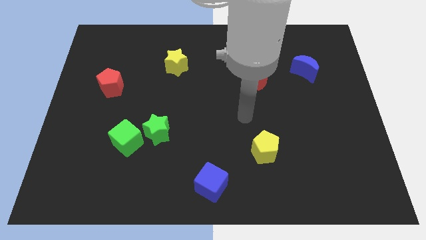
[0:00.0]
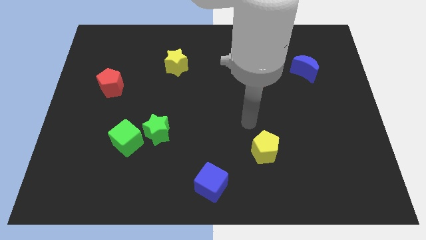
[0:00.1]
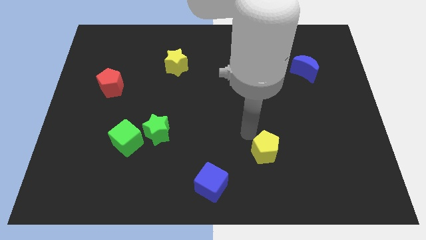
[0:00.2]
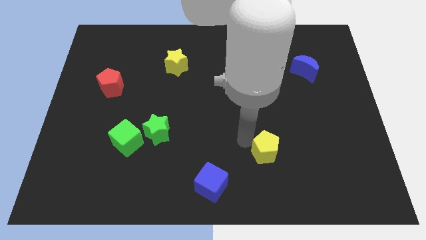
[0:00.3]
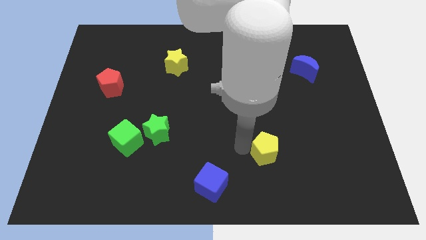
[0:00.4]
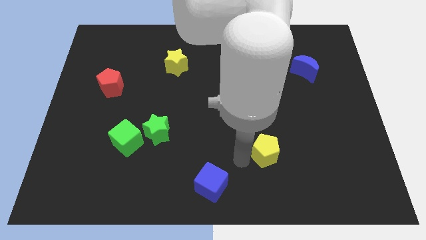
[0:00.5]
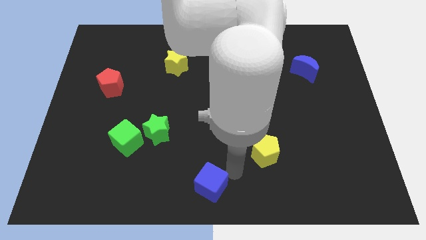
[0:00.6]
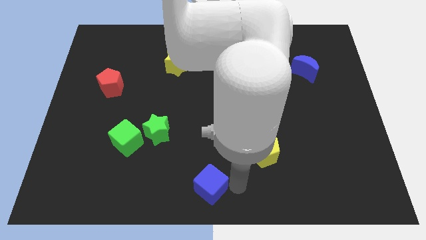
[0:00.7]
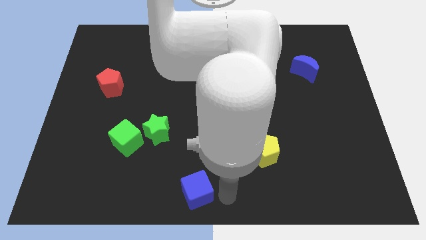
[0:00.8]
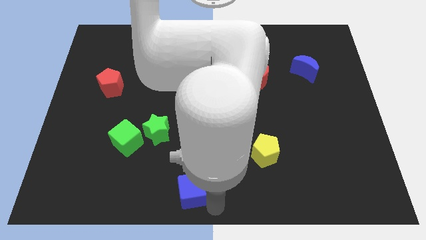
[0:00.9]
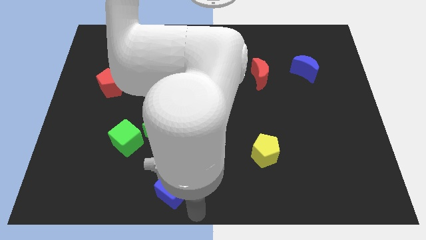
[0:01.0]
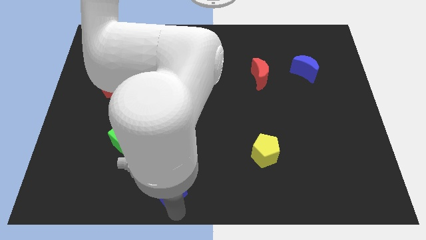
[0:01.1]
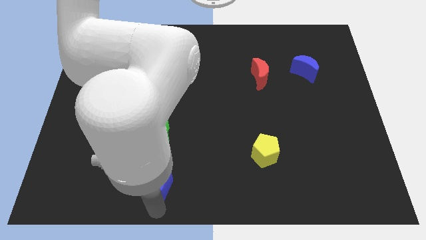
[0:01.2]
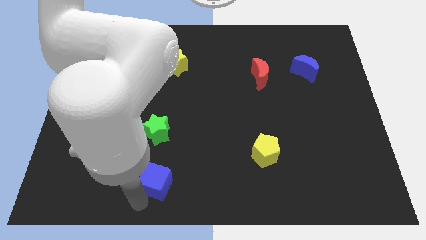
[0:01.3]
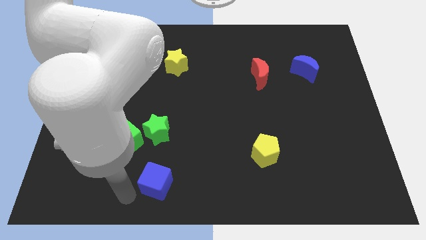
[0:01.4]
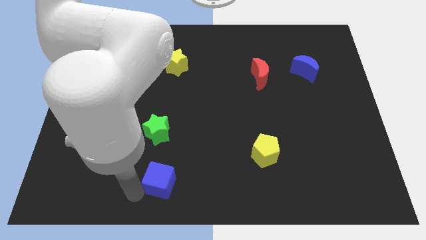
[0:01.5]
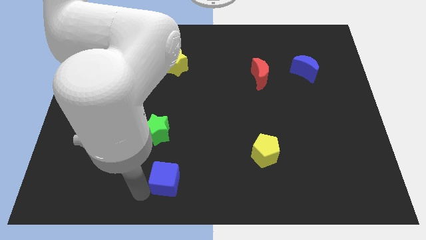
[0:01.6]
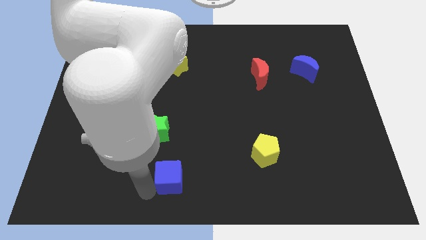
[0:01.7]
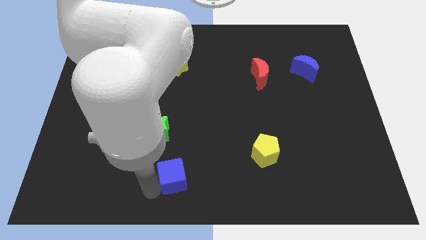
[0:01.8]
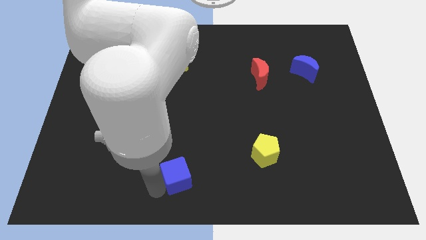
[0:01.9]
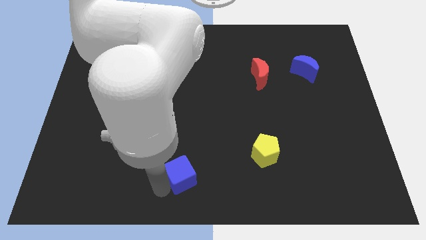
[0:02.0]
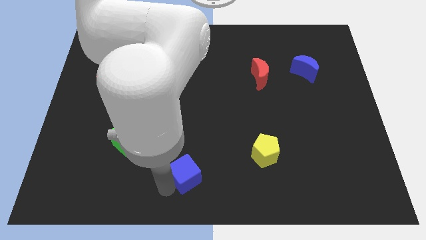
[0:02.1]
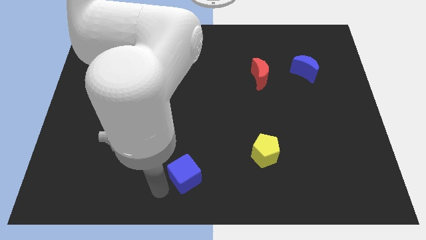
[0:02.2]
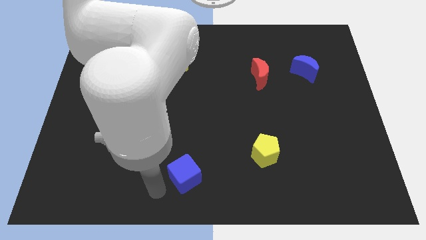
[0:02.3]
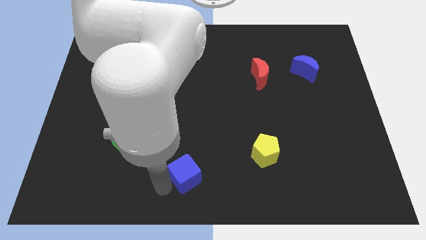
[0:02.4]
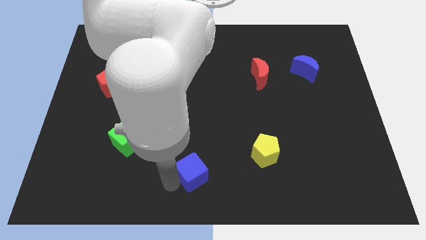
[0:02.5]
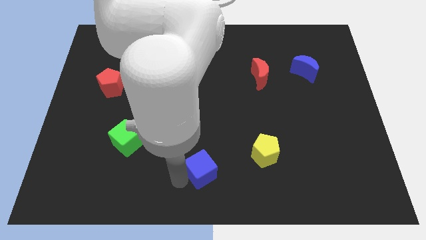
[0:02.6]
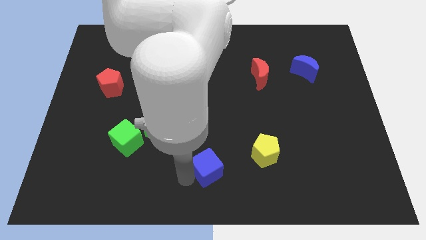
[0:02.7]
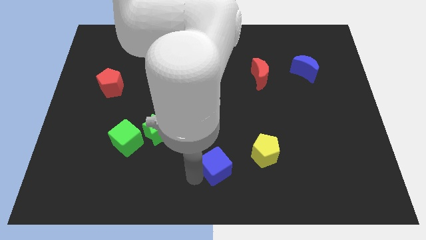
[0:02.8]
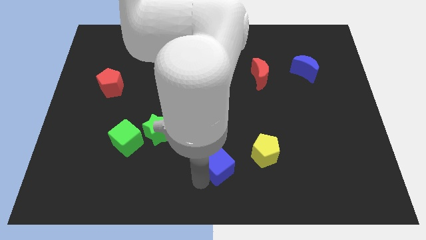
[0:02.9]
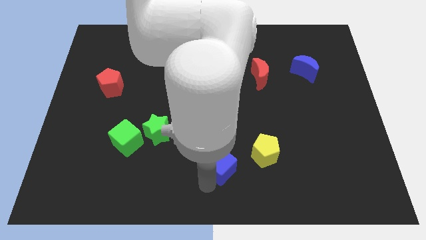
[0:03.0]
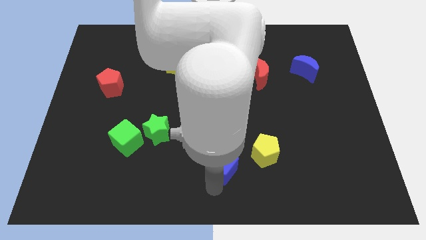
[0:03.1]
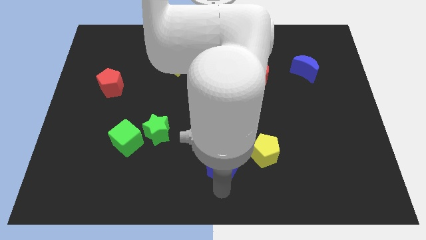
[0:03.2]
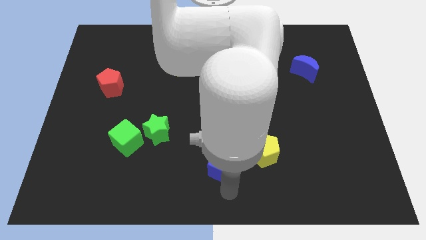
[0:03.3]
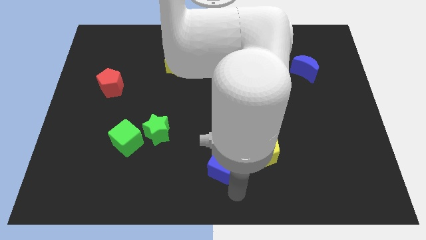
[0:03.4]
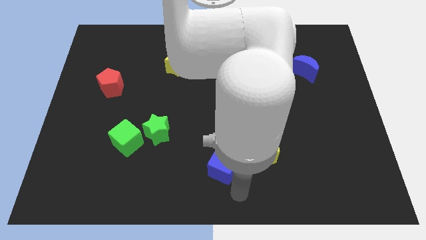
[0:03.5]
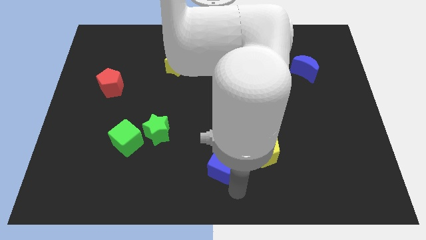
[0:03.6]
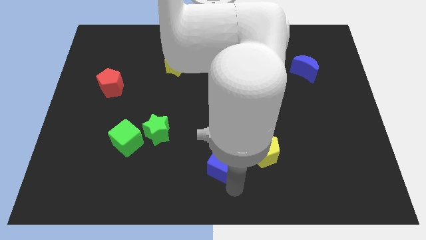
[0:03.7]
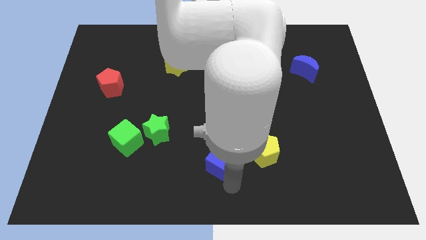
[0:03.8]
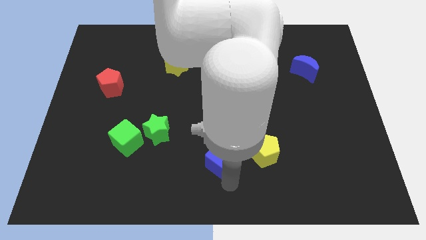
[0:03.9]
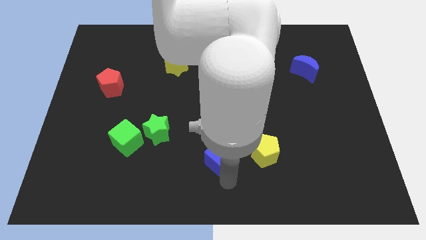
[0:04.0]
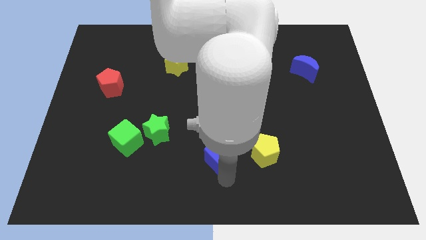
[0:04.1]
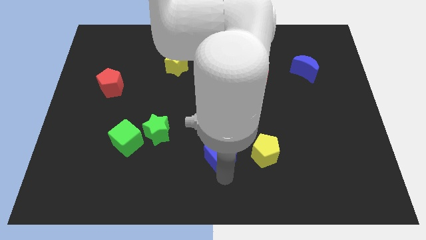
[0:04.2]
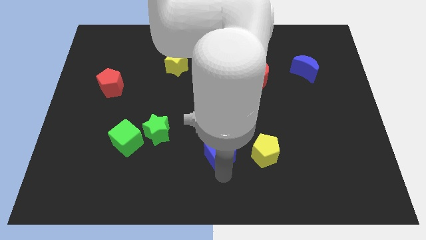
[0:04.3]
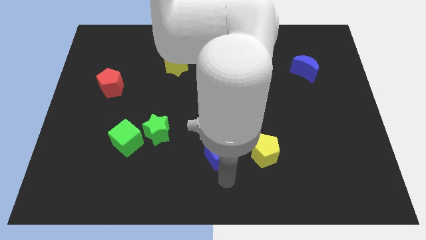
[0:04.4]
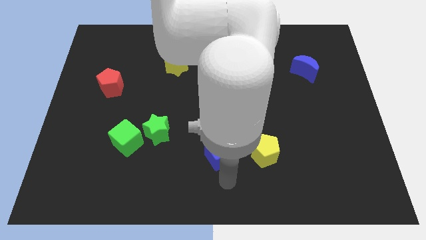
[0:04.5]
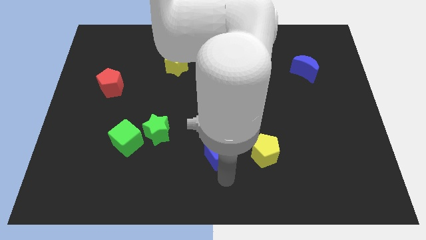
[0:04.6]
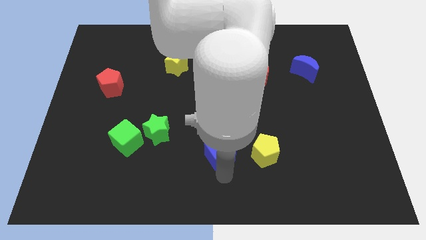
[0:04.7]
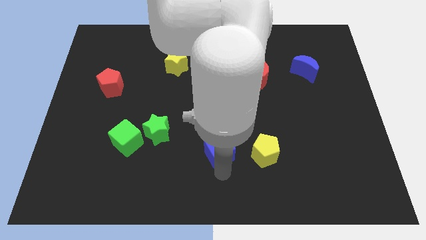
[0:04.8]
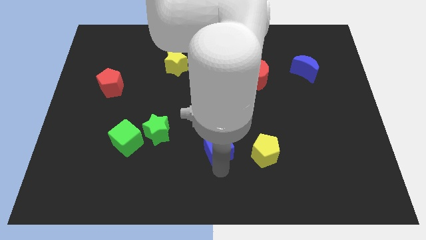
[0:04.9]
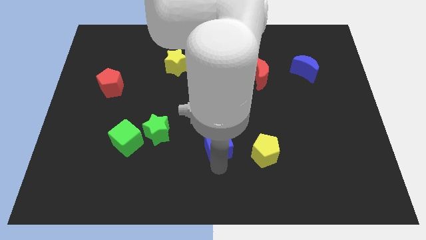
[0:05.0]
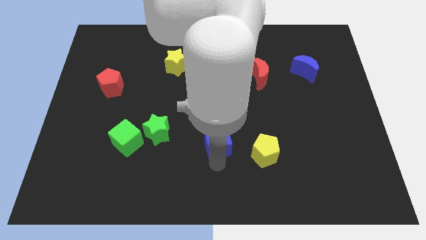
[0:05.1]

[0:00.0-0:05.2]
push the blue cube to the middle of the board
